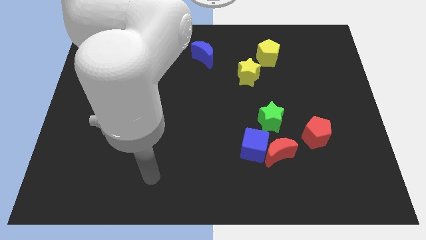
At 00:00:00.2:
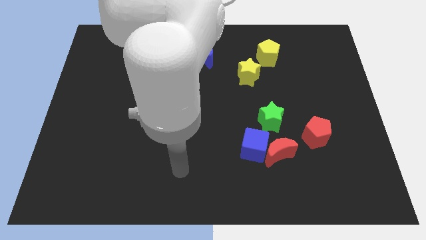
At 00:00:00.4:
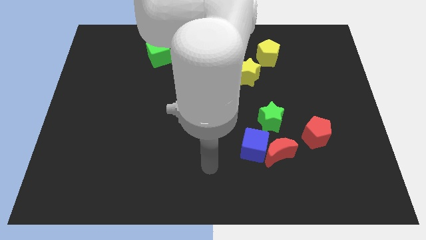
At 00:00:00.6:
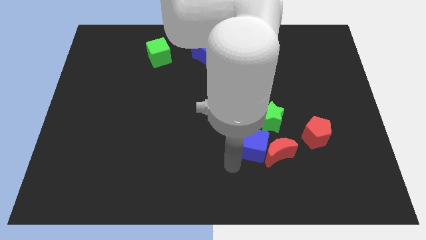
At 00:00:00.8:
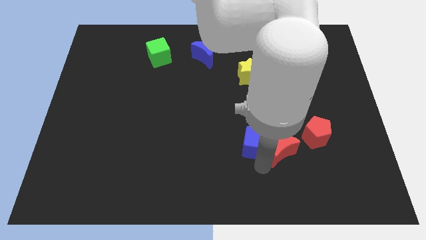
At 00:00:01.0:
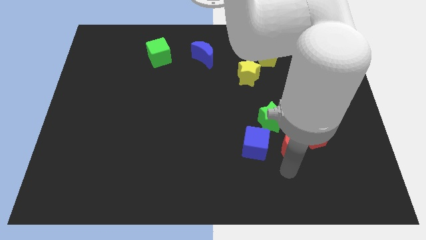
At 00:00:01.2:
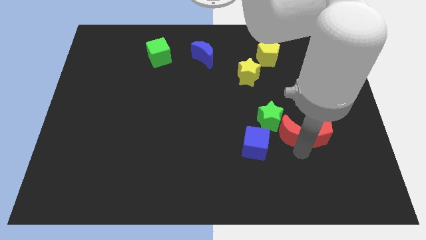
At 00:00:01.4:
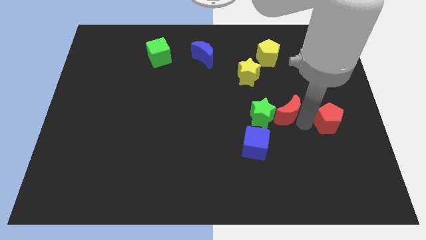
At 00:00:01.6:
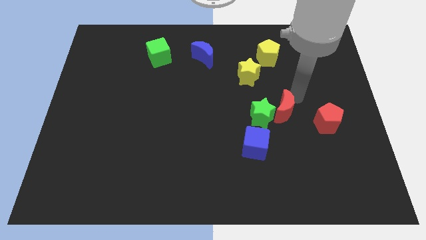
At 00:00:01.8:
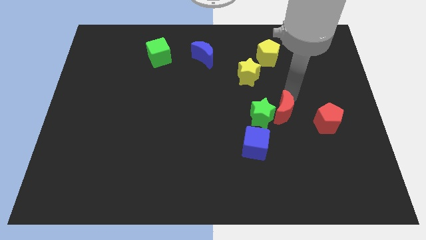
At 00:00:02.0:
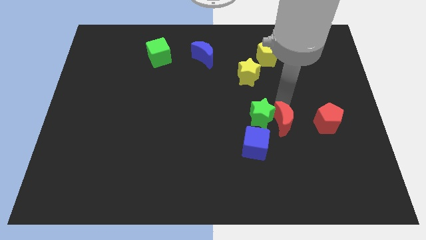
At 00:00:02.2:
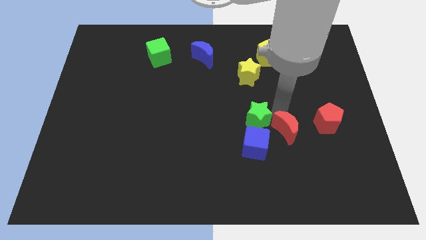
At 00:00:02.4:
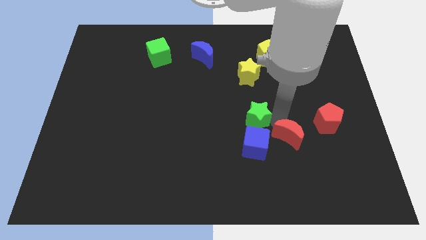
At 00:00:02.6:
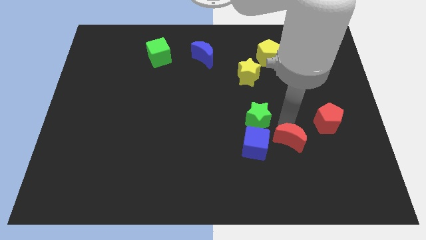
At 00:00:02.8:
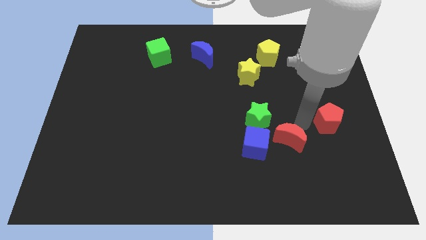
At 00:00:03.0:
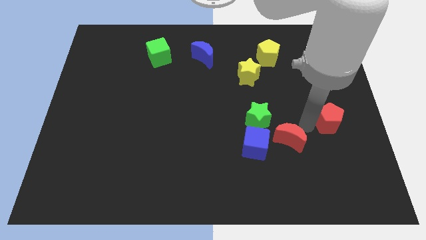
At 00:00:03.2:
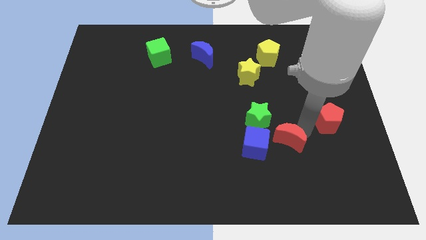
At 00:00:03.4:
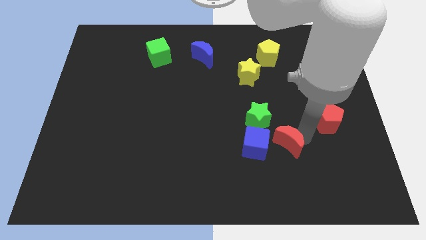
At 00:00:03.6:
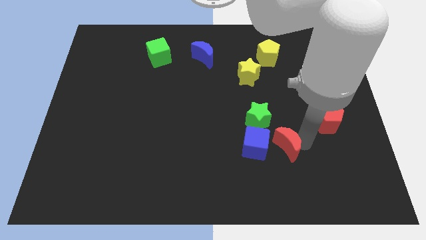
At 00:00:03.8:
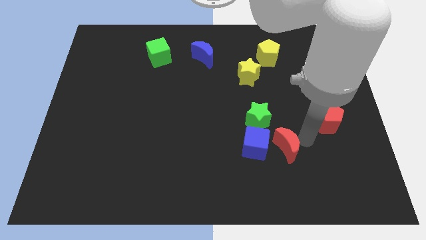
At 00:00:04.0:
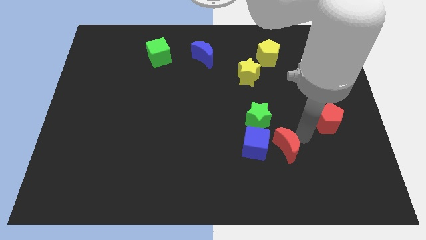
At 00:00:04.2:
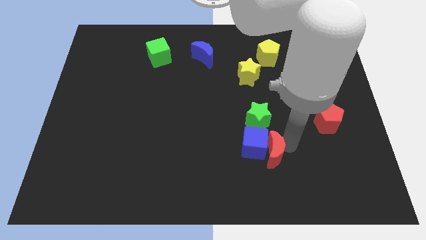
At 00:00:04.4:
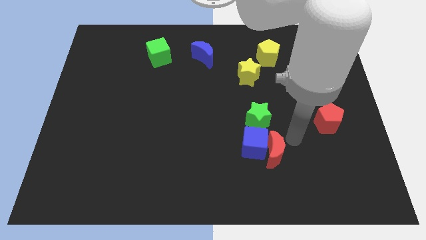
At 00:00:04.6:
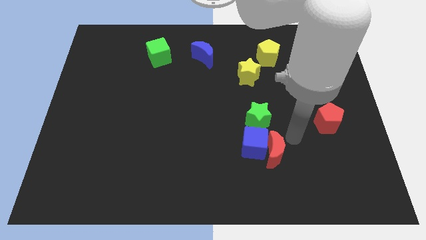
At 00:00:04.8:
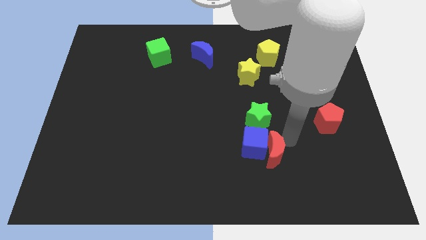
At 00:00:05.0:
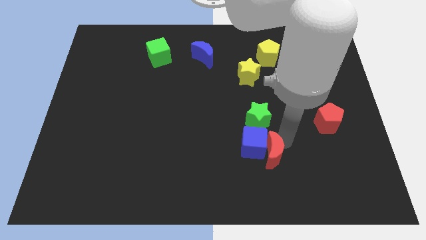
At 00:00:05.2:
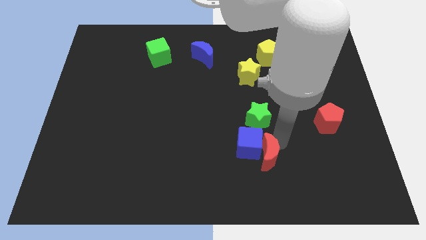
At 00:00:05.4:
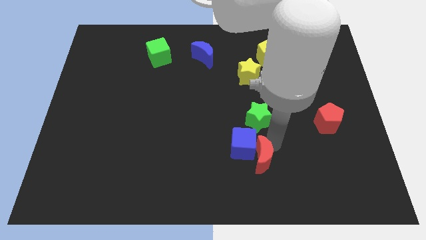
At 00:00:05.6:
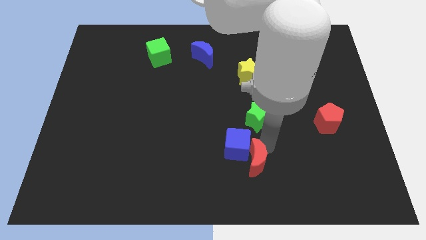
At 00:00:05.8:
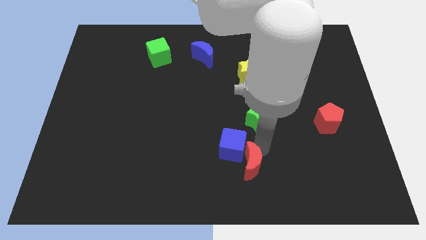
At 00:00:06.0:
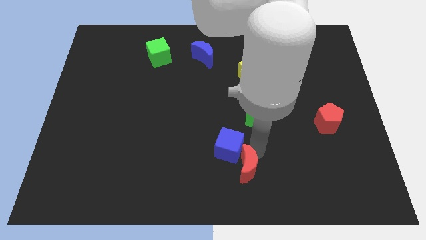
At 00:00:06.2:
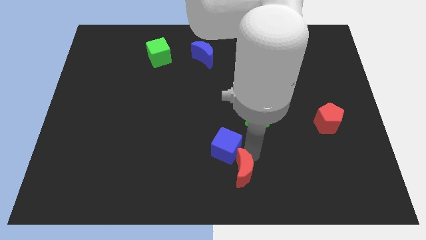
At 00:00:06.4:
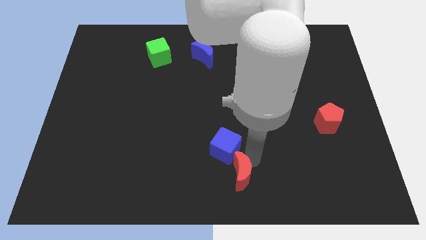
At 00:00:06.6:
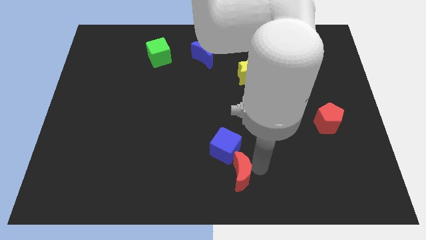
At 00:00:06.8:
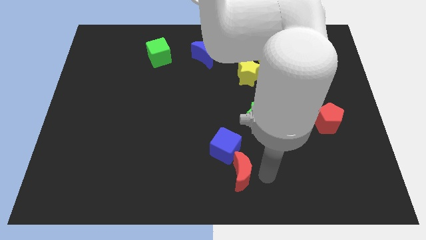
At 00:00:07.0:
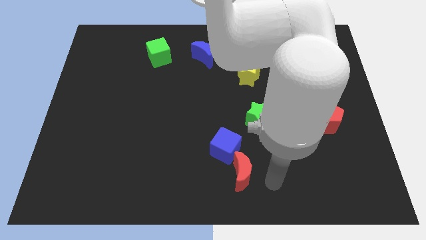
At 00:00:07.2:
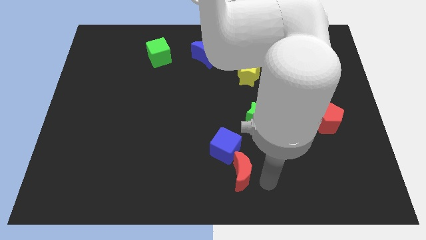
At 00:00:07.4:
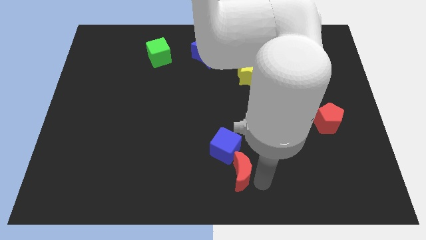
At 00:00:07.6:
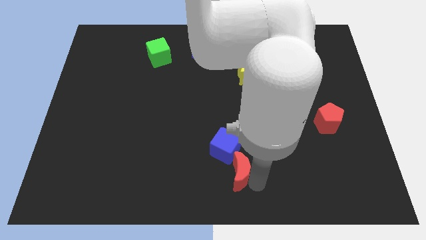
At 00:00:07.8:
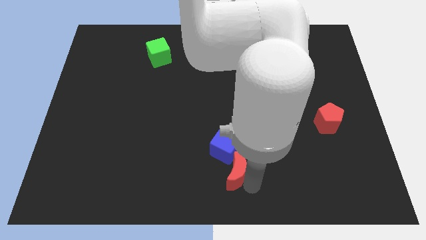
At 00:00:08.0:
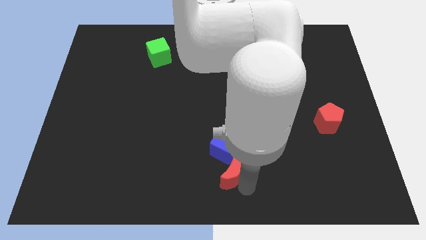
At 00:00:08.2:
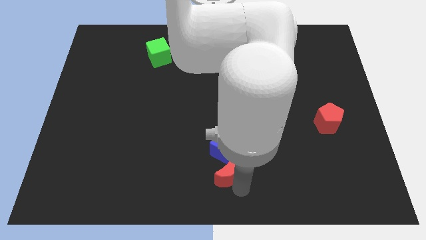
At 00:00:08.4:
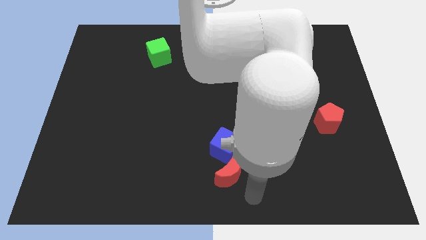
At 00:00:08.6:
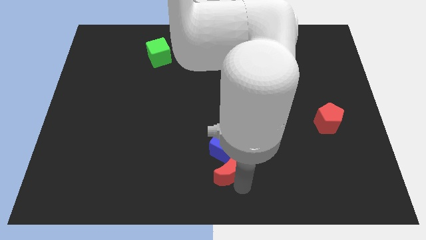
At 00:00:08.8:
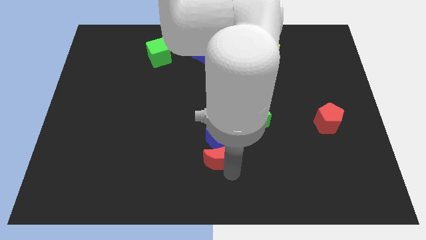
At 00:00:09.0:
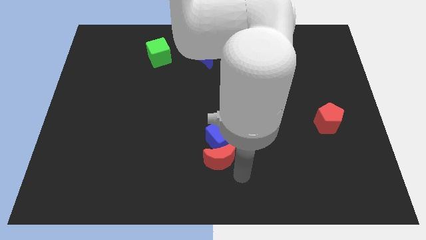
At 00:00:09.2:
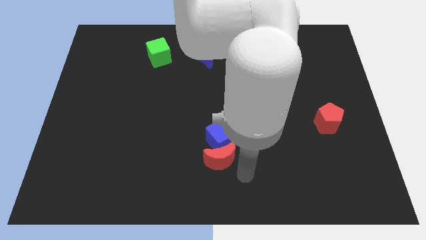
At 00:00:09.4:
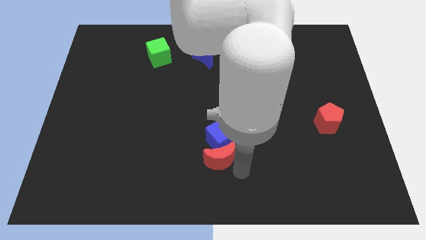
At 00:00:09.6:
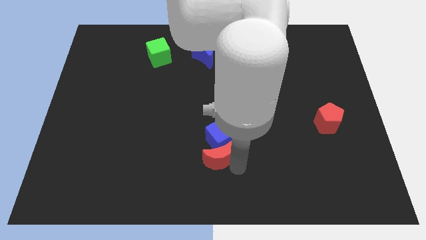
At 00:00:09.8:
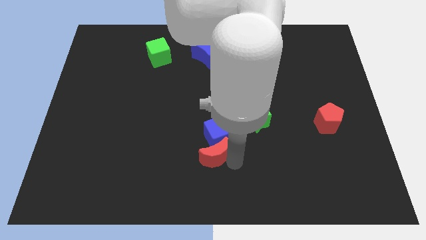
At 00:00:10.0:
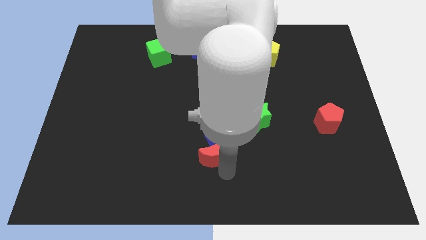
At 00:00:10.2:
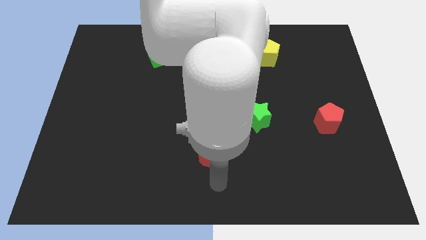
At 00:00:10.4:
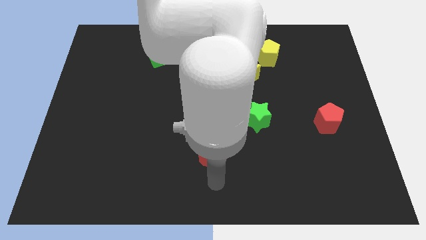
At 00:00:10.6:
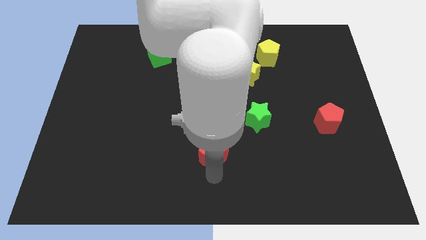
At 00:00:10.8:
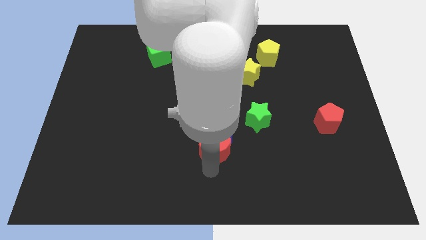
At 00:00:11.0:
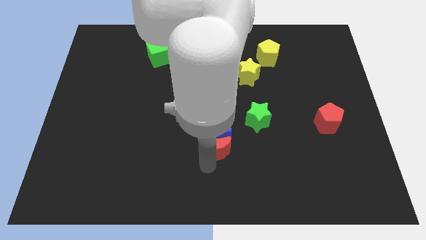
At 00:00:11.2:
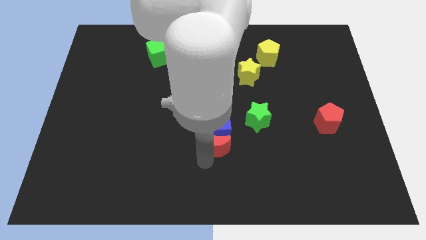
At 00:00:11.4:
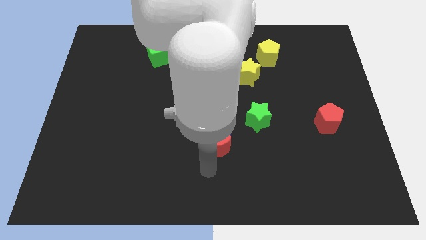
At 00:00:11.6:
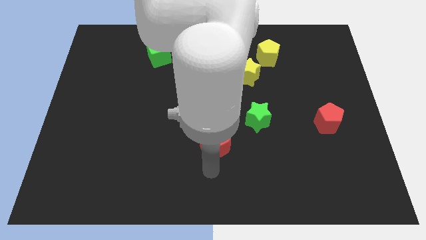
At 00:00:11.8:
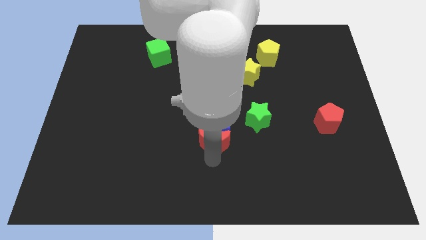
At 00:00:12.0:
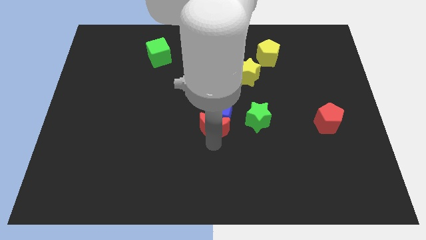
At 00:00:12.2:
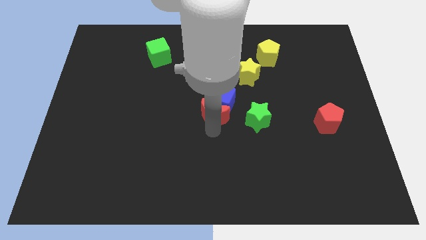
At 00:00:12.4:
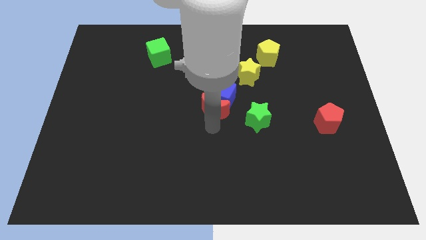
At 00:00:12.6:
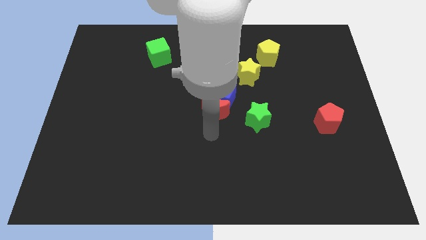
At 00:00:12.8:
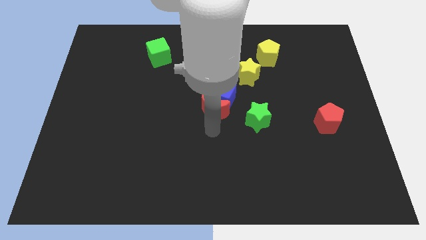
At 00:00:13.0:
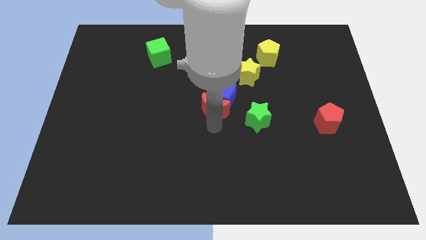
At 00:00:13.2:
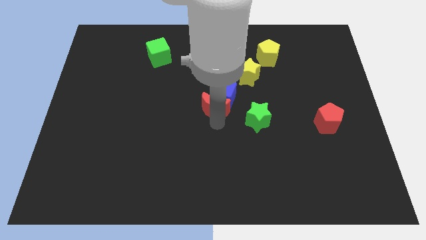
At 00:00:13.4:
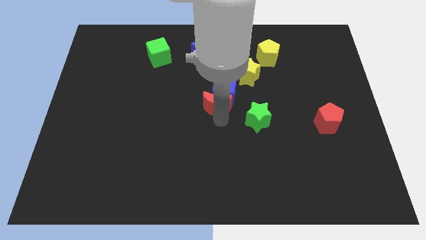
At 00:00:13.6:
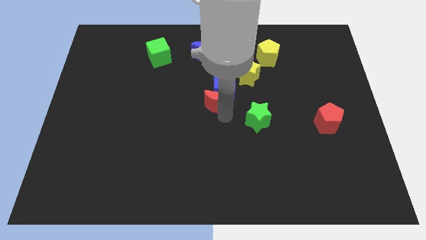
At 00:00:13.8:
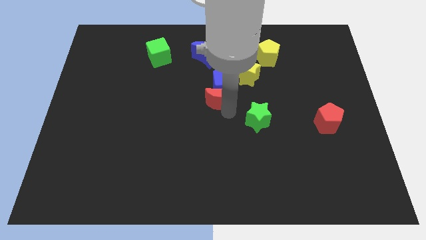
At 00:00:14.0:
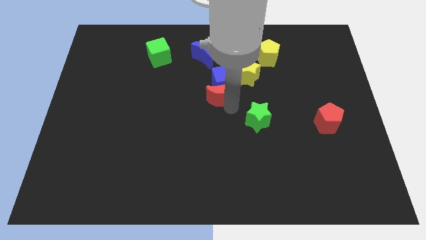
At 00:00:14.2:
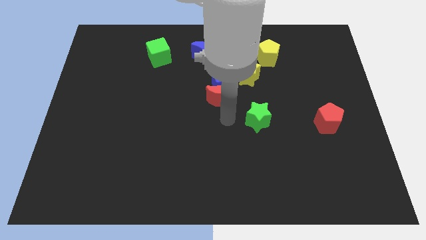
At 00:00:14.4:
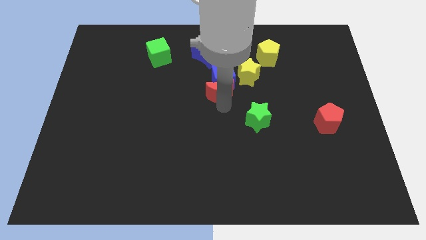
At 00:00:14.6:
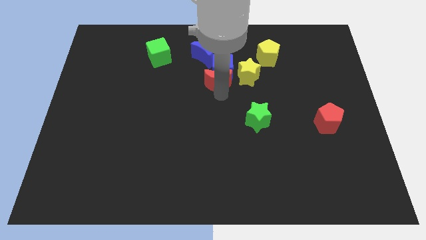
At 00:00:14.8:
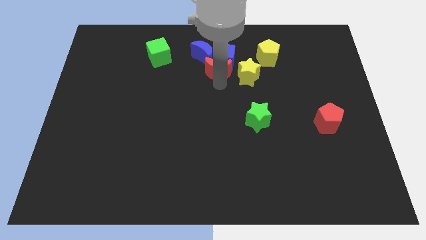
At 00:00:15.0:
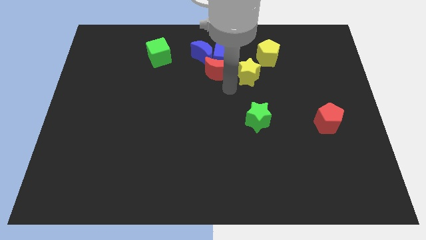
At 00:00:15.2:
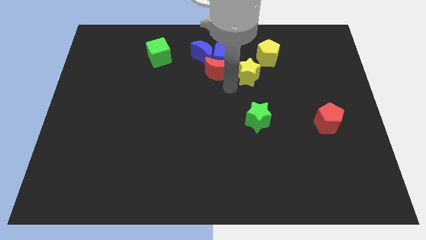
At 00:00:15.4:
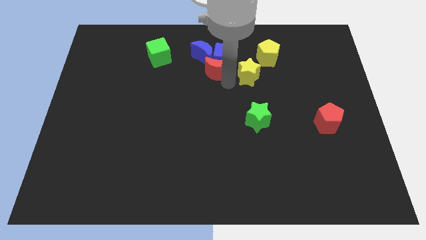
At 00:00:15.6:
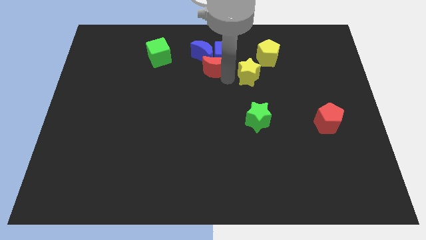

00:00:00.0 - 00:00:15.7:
push the red moon close to the blue moon
